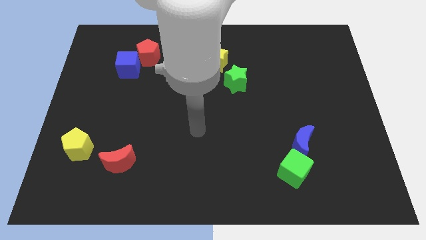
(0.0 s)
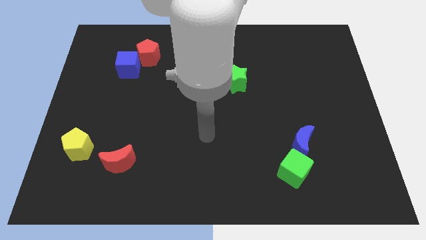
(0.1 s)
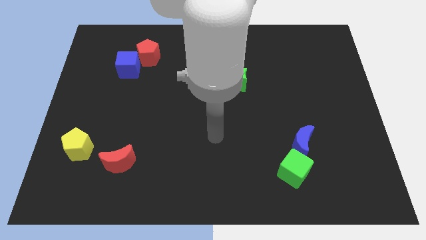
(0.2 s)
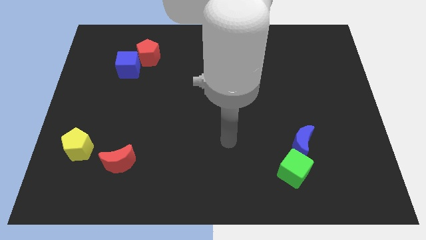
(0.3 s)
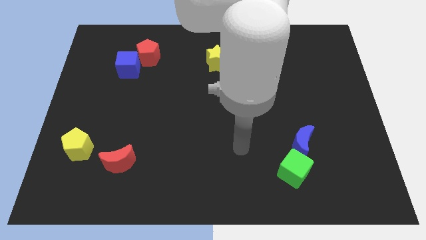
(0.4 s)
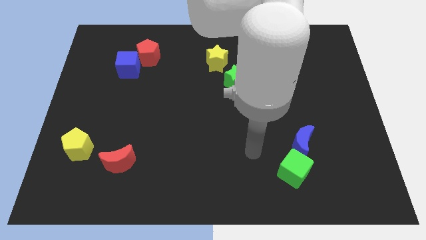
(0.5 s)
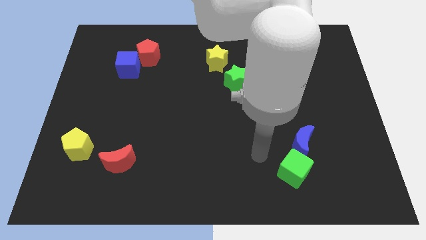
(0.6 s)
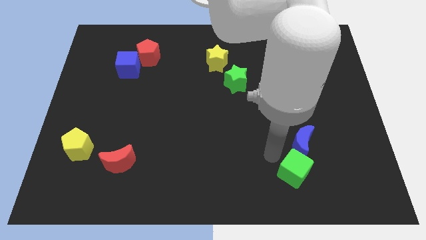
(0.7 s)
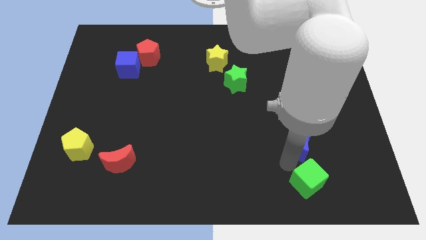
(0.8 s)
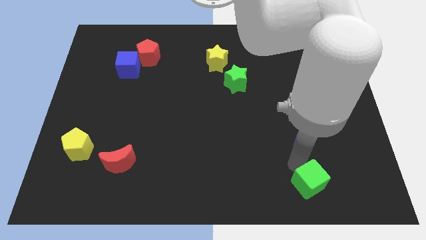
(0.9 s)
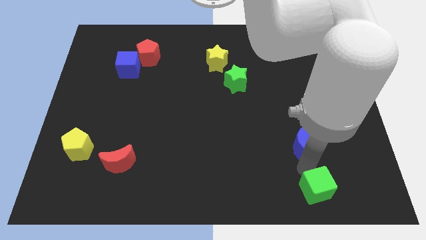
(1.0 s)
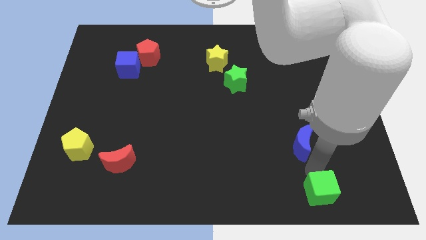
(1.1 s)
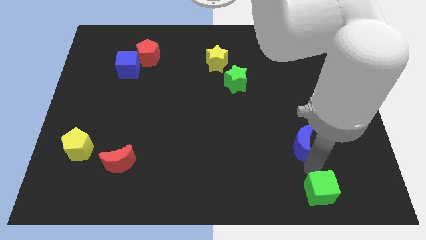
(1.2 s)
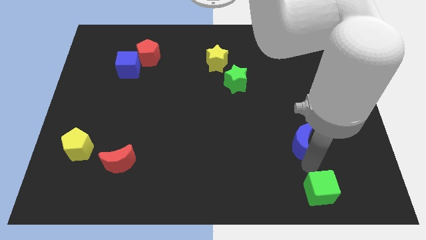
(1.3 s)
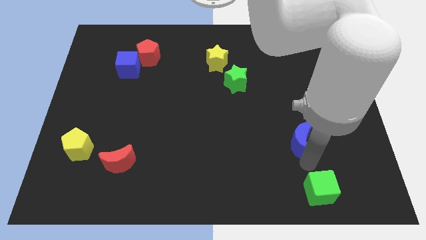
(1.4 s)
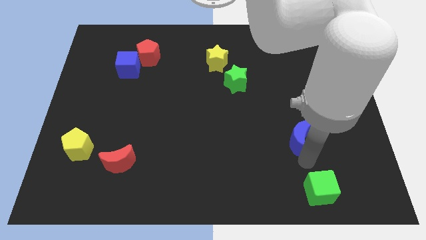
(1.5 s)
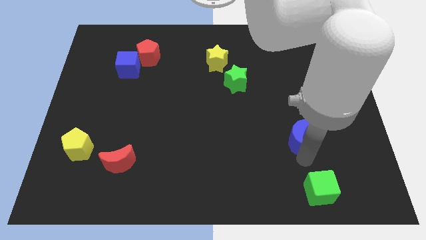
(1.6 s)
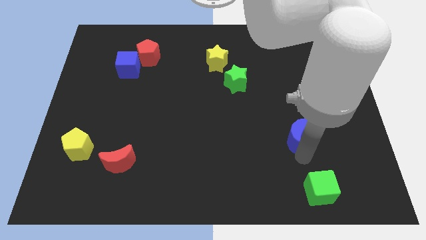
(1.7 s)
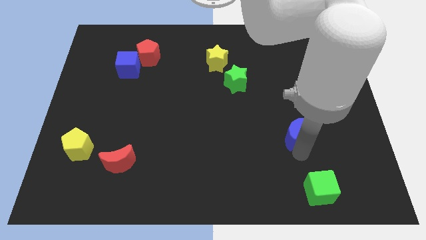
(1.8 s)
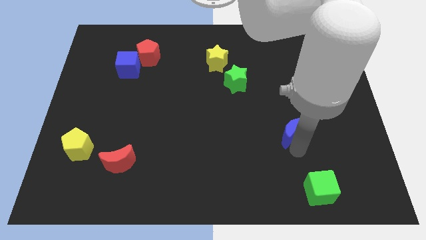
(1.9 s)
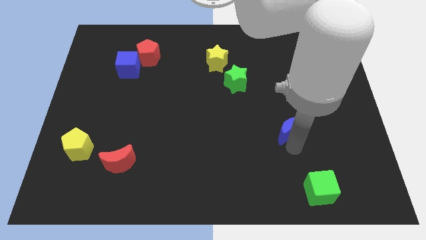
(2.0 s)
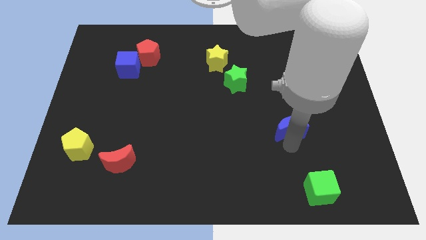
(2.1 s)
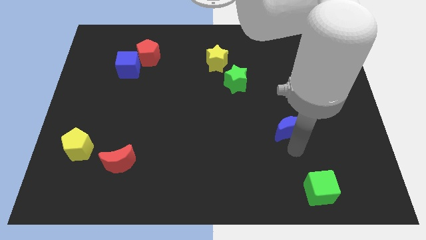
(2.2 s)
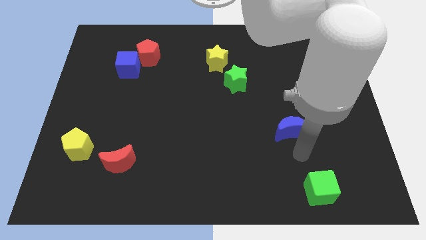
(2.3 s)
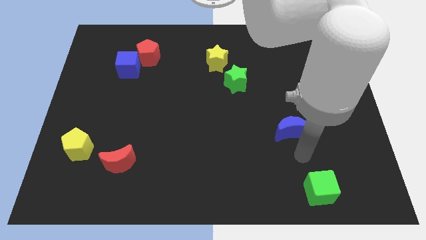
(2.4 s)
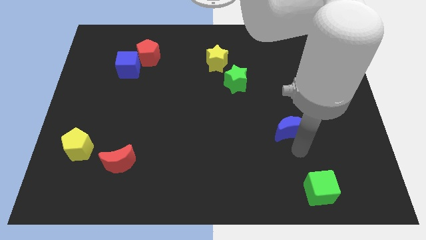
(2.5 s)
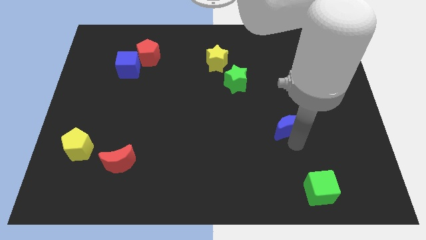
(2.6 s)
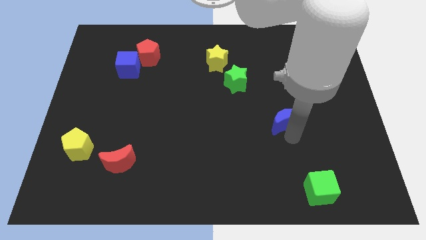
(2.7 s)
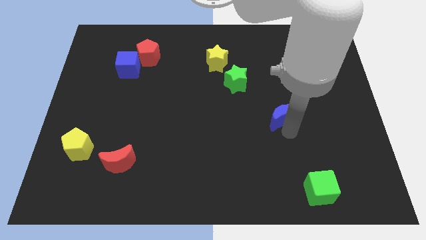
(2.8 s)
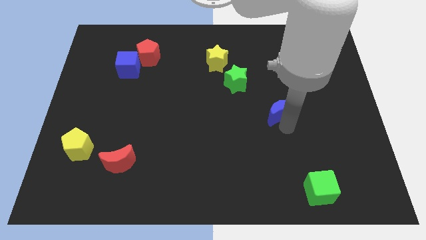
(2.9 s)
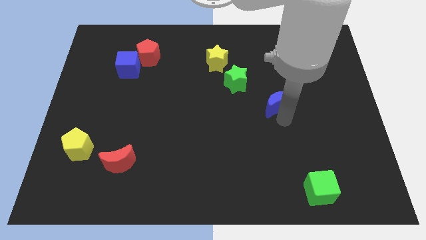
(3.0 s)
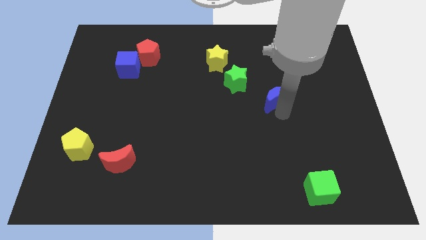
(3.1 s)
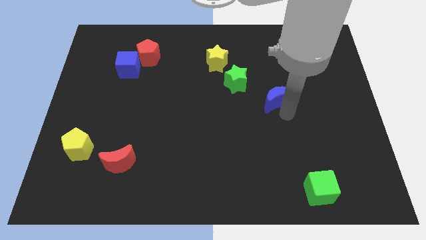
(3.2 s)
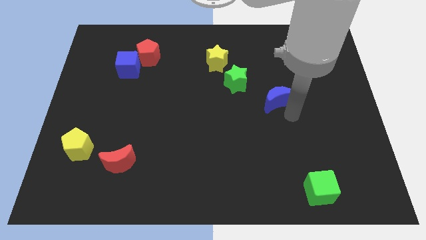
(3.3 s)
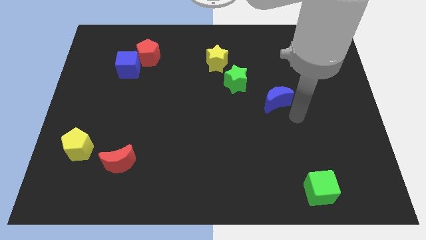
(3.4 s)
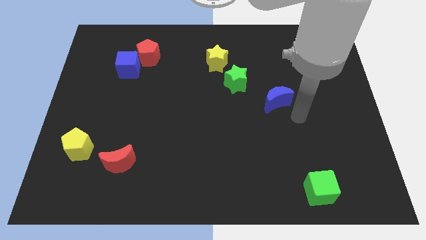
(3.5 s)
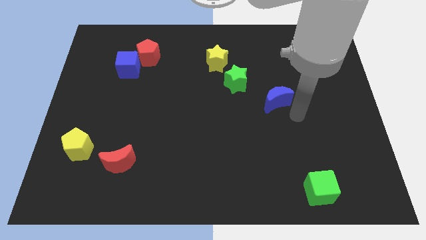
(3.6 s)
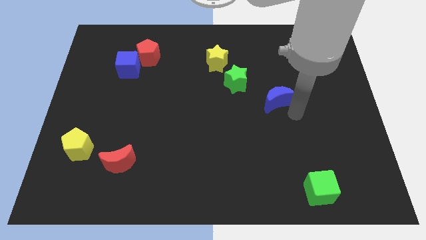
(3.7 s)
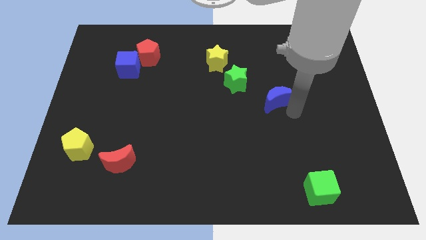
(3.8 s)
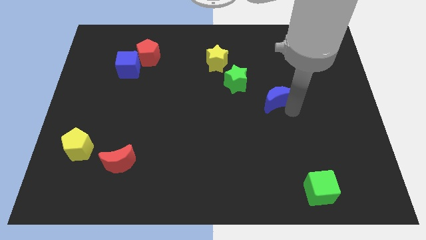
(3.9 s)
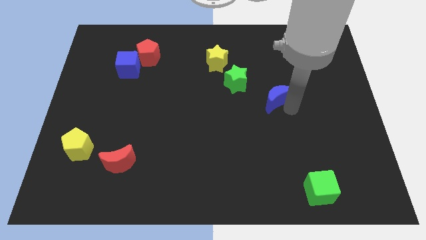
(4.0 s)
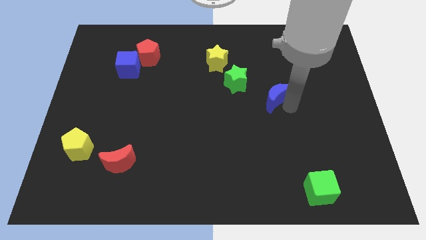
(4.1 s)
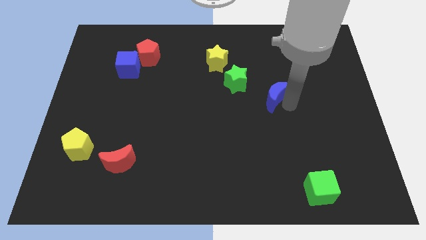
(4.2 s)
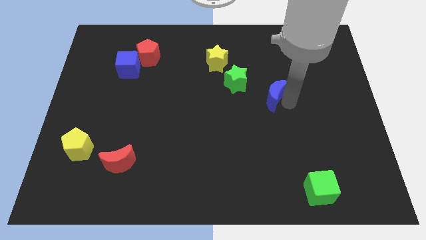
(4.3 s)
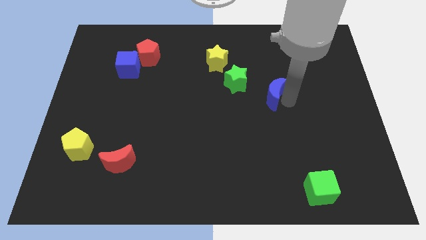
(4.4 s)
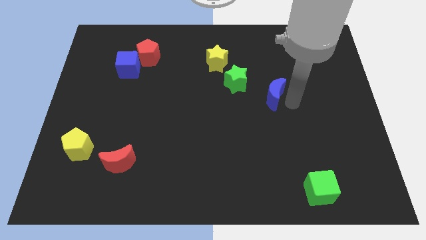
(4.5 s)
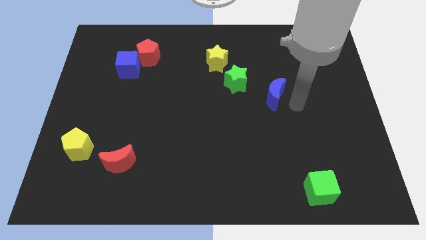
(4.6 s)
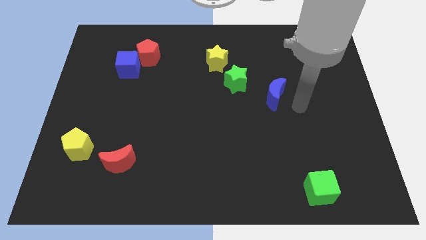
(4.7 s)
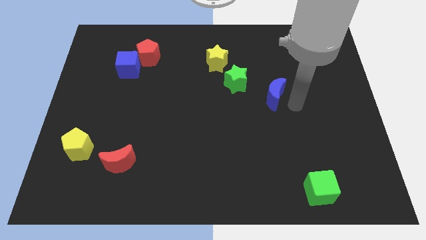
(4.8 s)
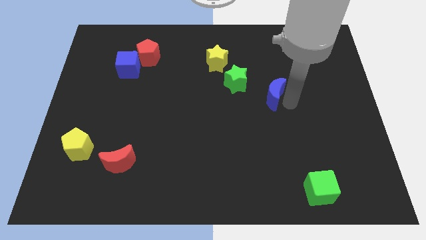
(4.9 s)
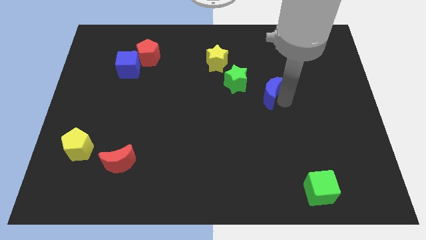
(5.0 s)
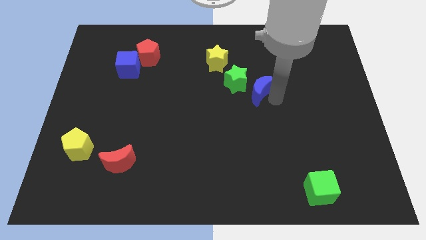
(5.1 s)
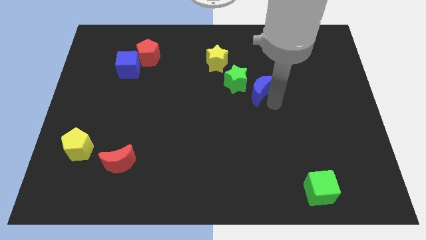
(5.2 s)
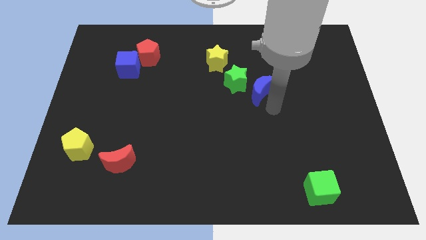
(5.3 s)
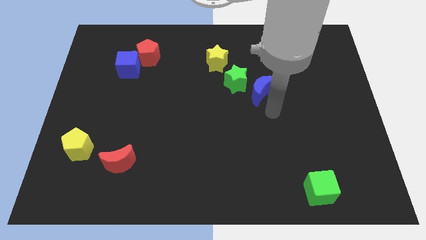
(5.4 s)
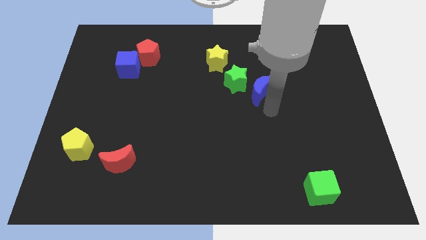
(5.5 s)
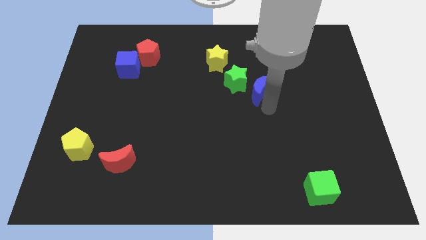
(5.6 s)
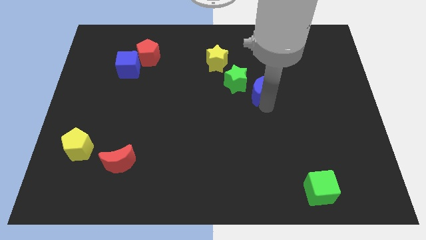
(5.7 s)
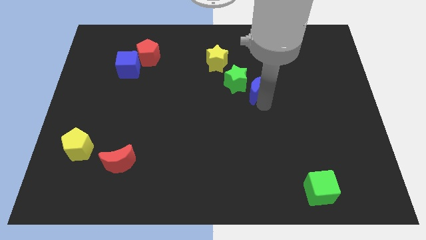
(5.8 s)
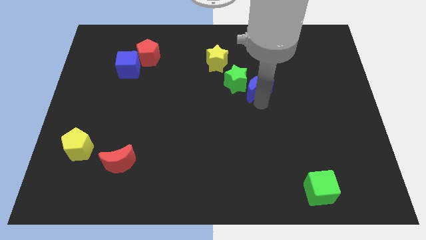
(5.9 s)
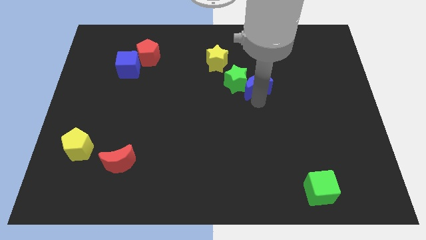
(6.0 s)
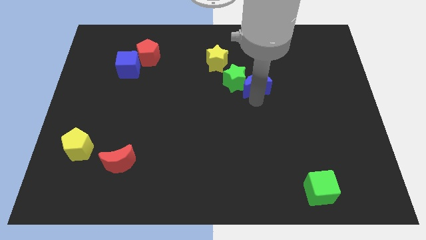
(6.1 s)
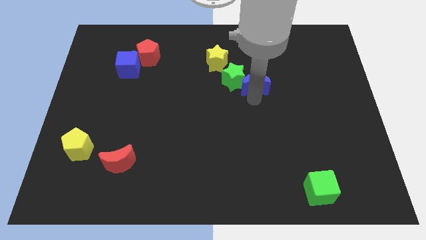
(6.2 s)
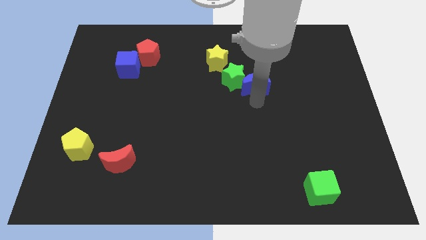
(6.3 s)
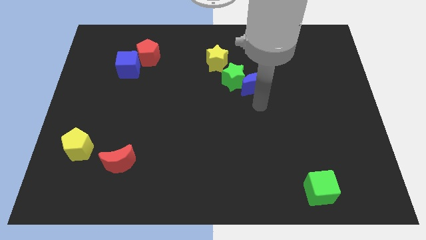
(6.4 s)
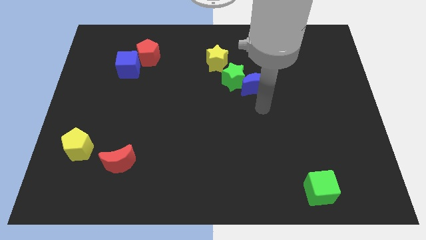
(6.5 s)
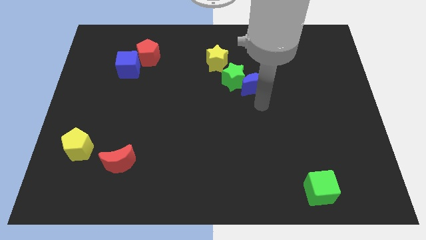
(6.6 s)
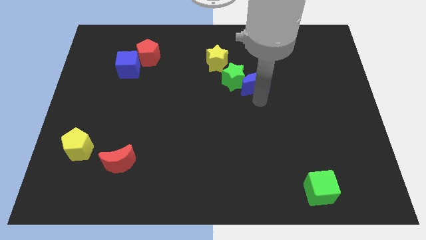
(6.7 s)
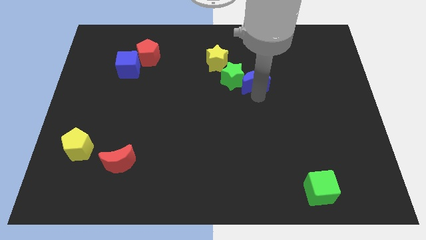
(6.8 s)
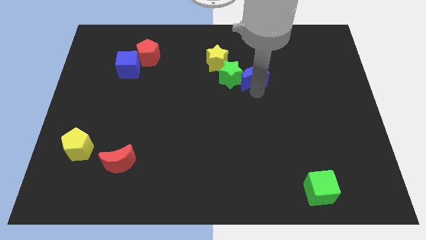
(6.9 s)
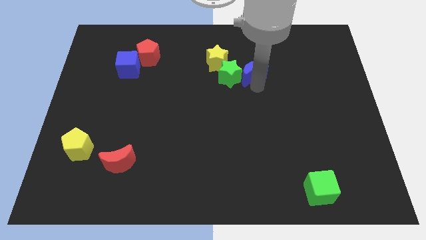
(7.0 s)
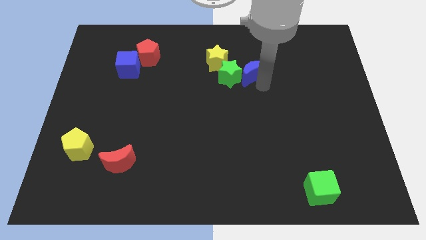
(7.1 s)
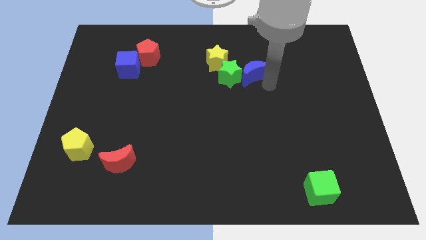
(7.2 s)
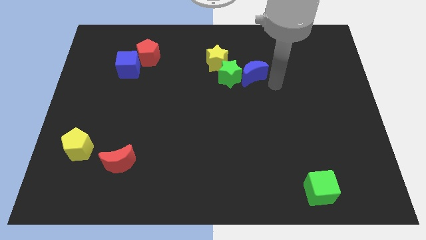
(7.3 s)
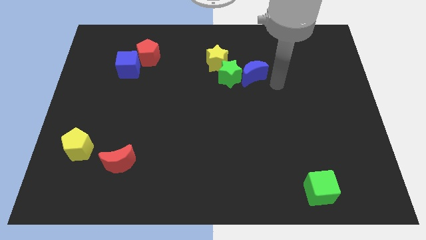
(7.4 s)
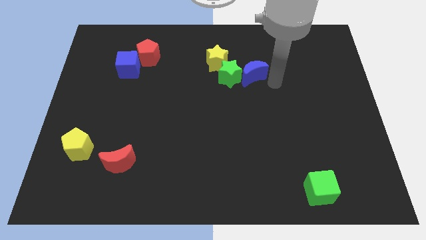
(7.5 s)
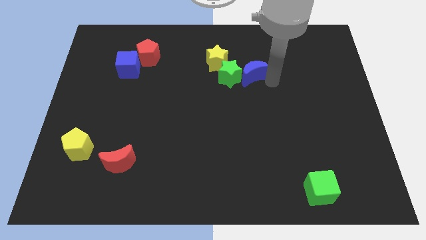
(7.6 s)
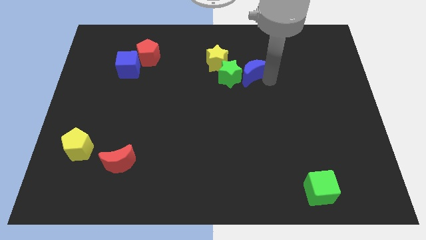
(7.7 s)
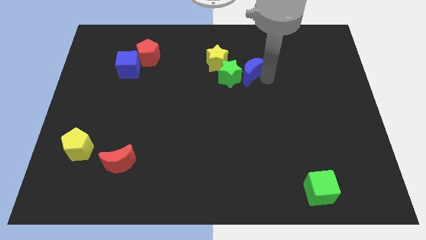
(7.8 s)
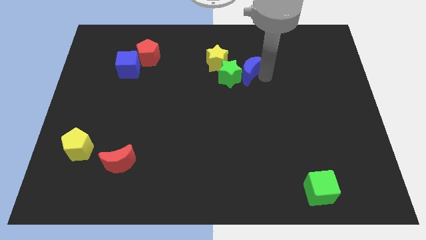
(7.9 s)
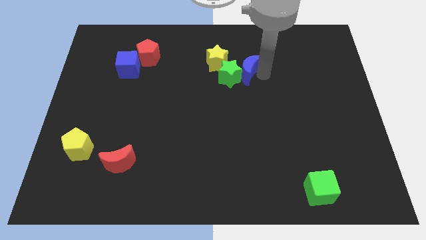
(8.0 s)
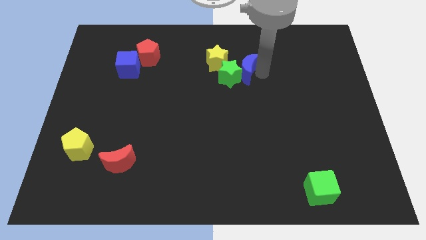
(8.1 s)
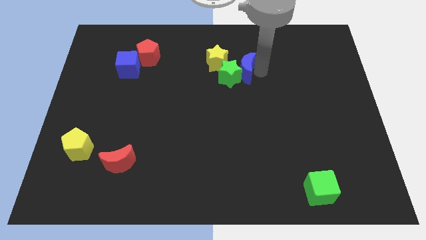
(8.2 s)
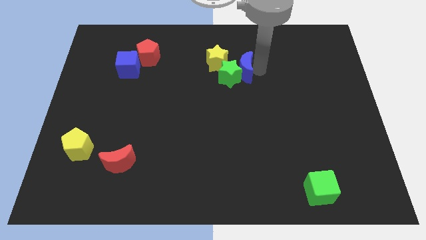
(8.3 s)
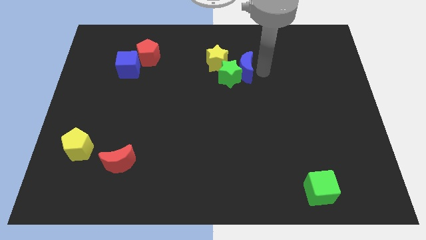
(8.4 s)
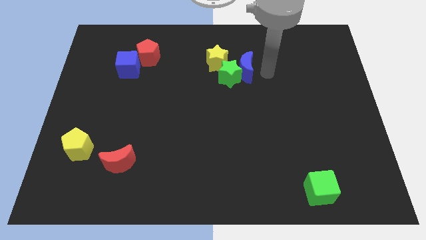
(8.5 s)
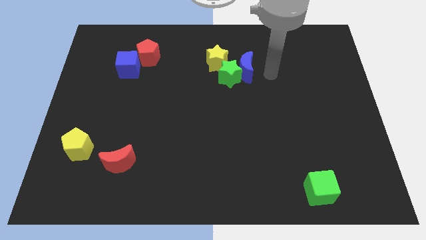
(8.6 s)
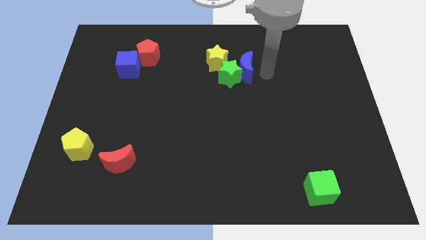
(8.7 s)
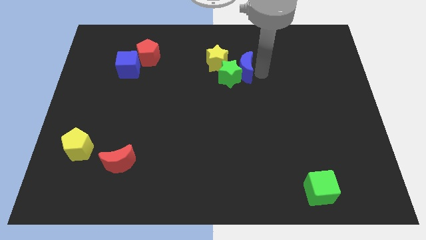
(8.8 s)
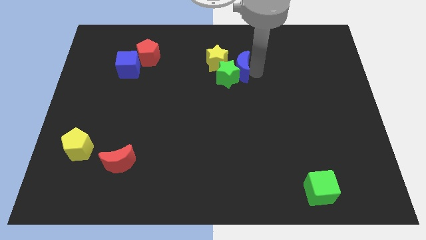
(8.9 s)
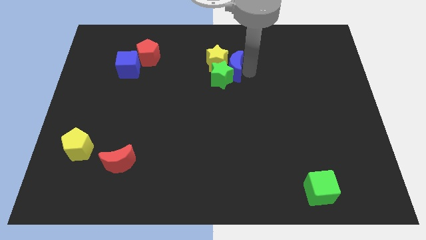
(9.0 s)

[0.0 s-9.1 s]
put the blue moon next to the yellow star
